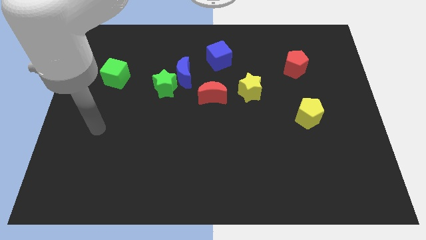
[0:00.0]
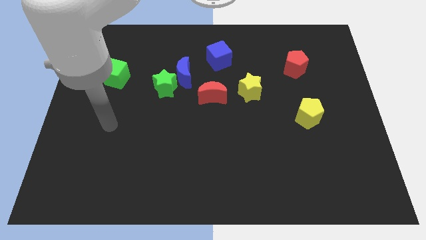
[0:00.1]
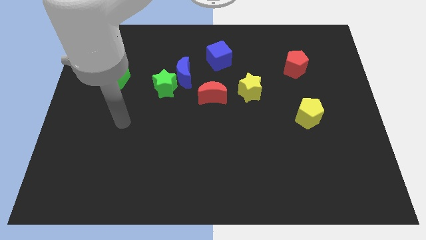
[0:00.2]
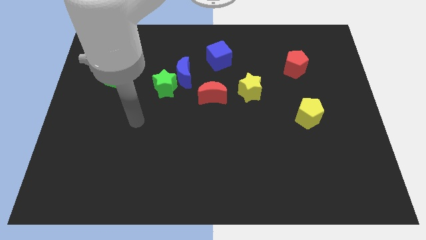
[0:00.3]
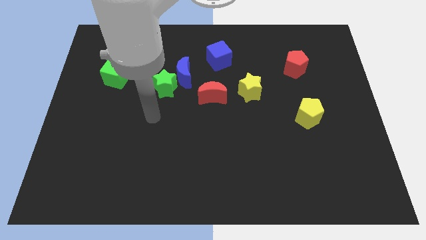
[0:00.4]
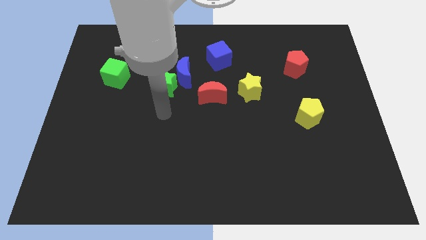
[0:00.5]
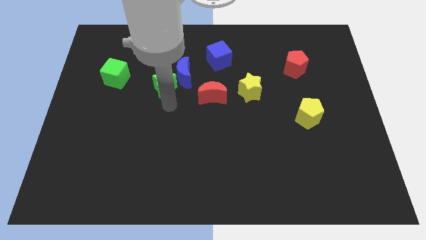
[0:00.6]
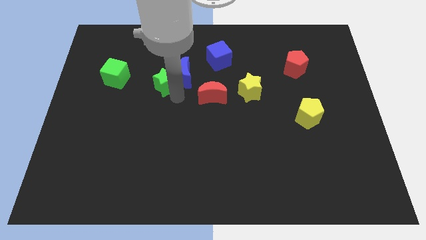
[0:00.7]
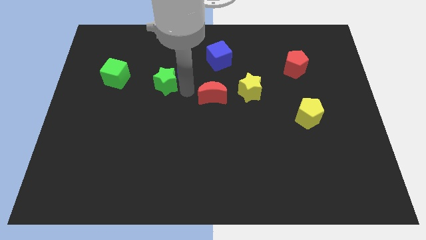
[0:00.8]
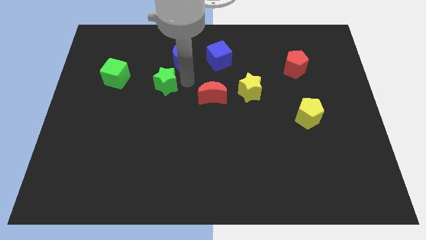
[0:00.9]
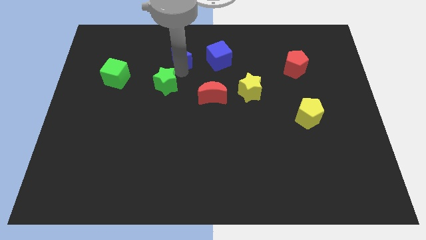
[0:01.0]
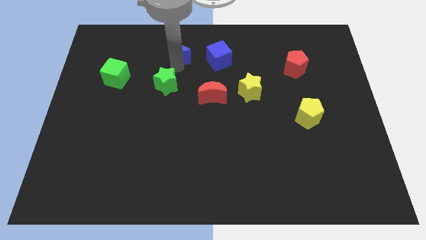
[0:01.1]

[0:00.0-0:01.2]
separate the green star from the blue moon

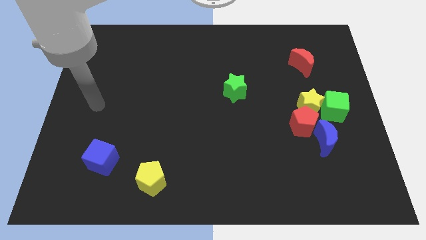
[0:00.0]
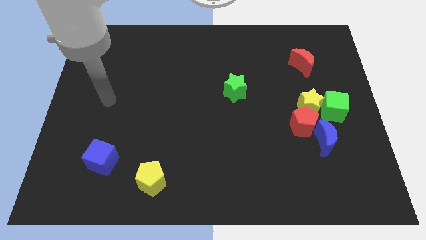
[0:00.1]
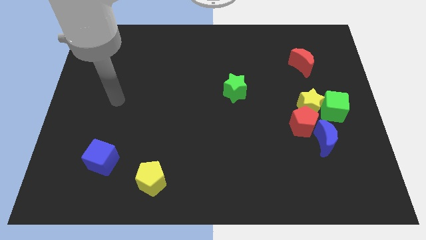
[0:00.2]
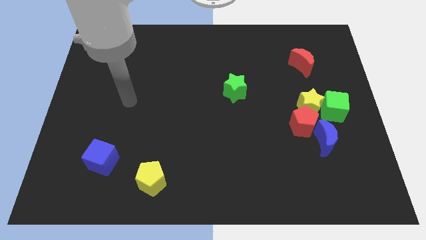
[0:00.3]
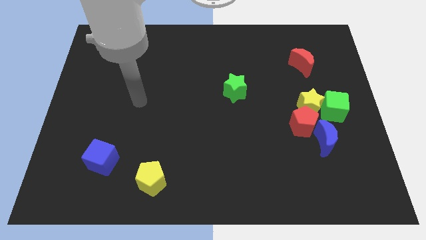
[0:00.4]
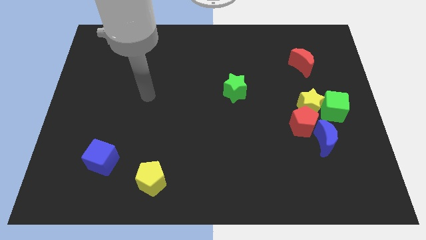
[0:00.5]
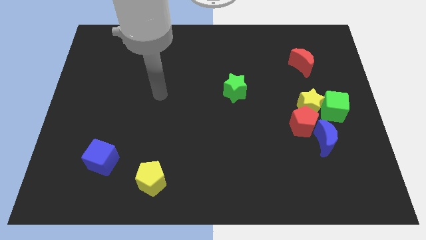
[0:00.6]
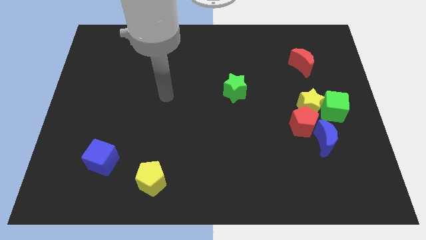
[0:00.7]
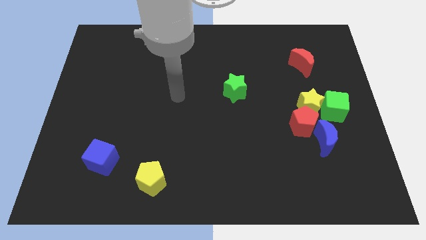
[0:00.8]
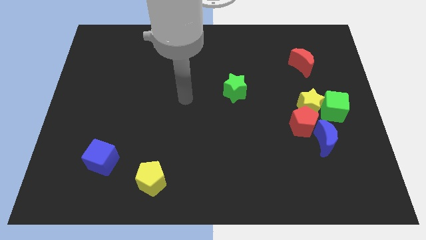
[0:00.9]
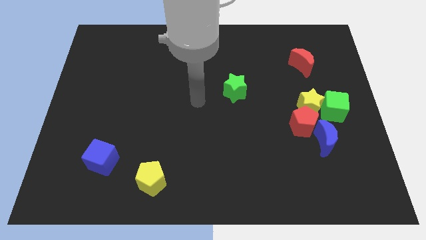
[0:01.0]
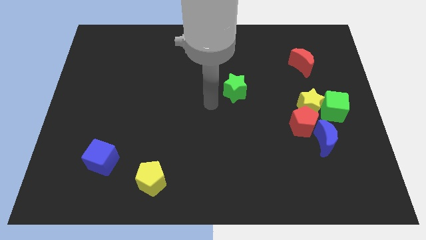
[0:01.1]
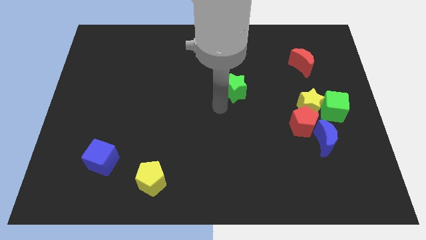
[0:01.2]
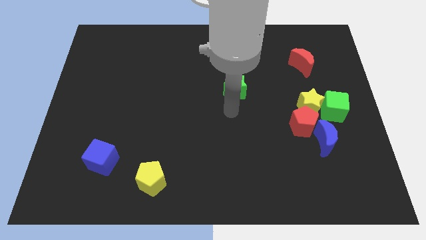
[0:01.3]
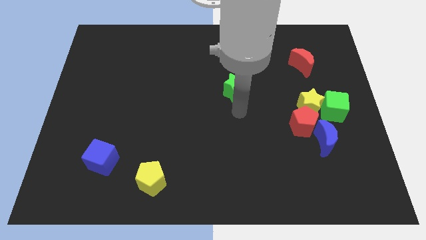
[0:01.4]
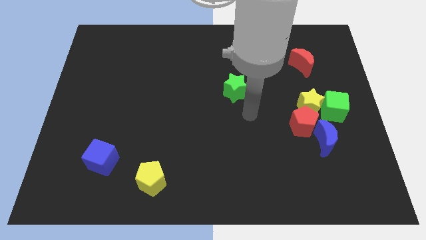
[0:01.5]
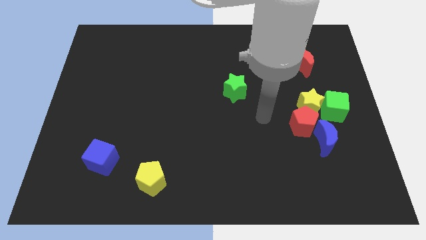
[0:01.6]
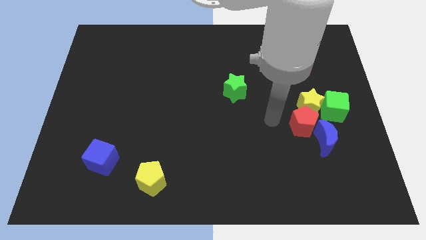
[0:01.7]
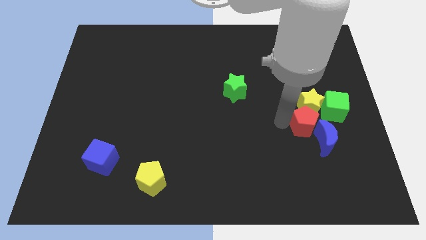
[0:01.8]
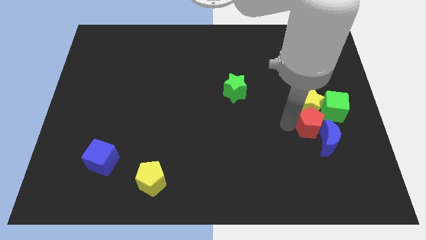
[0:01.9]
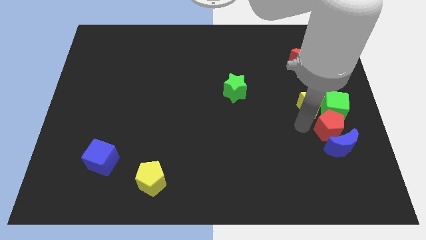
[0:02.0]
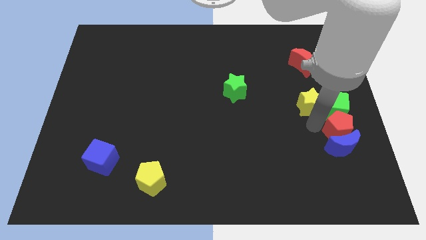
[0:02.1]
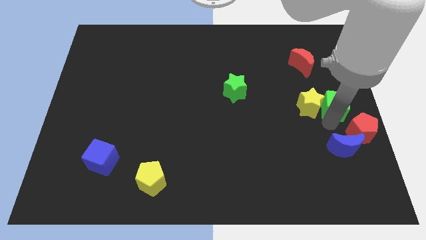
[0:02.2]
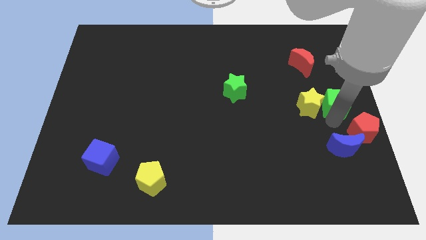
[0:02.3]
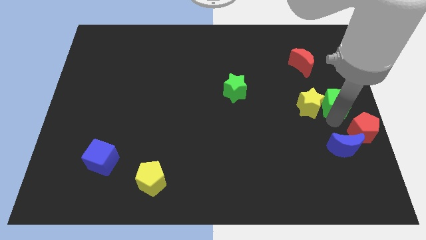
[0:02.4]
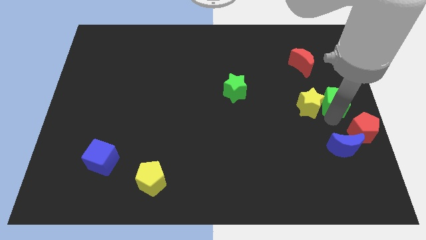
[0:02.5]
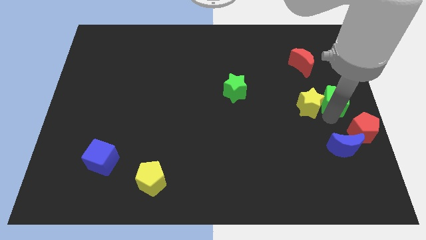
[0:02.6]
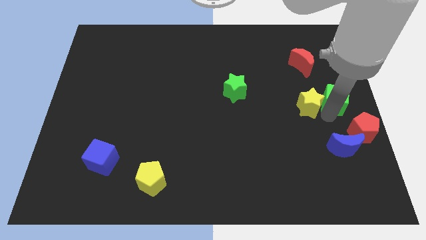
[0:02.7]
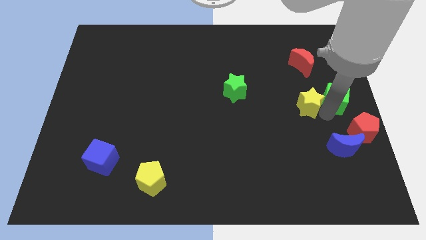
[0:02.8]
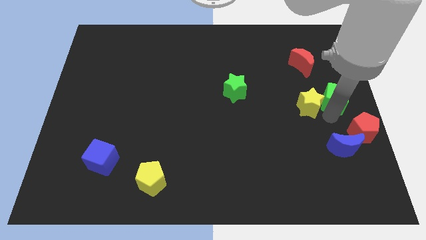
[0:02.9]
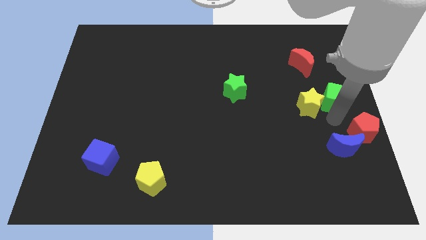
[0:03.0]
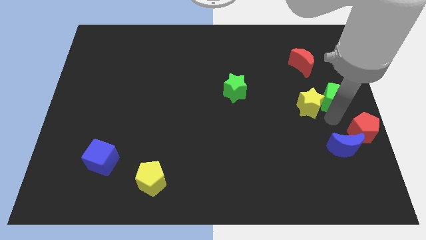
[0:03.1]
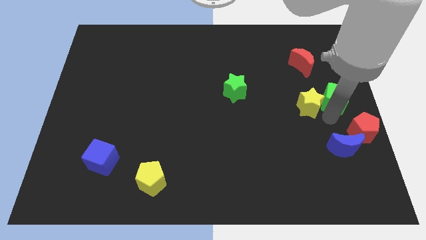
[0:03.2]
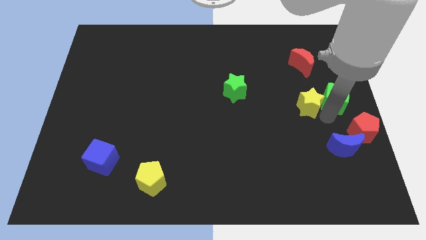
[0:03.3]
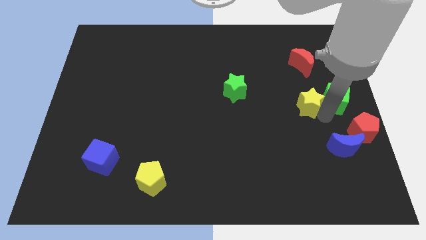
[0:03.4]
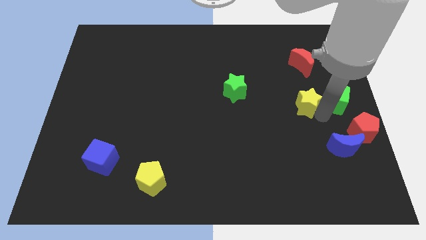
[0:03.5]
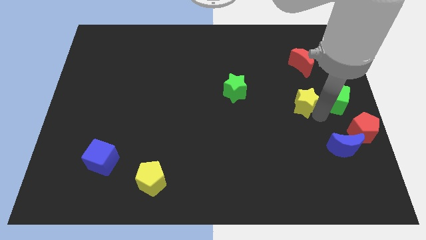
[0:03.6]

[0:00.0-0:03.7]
separate the yellow star from the green cube, red pentagon, and blue moon

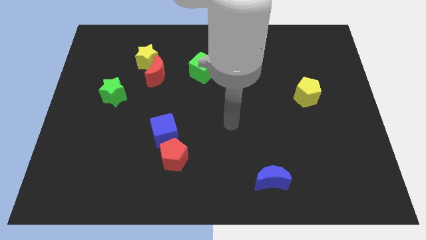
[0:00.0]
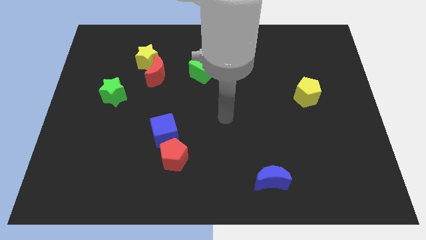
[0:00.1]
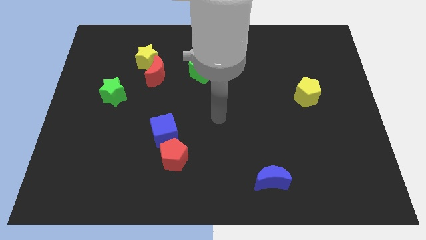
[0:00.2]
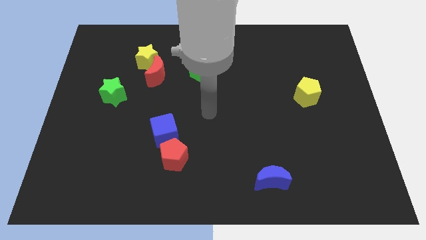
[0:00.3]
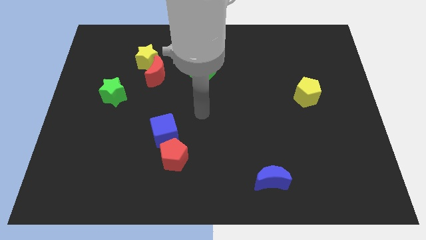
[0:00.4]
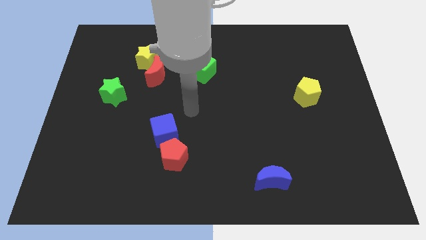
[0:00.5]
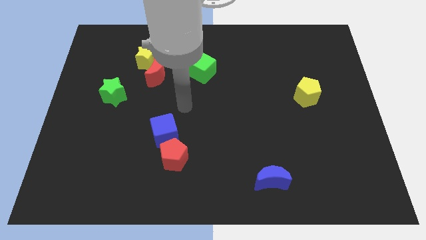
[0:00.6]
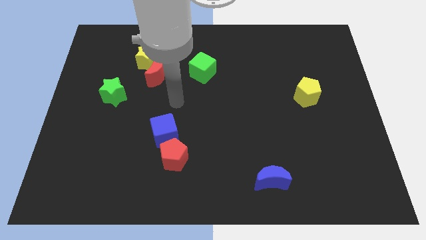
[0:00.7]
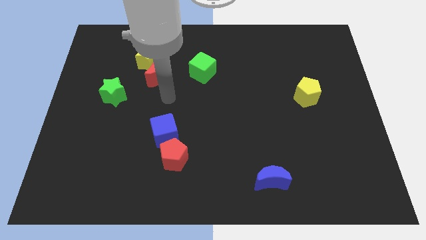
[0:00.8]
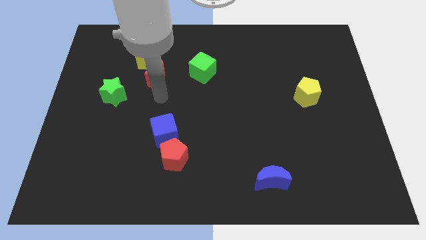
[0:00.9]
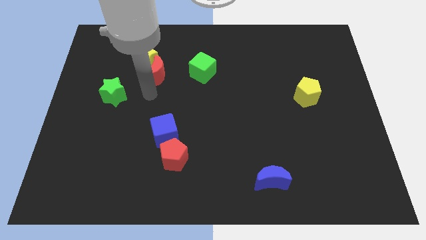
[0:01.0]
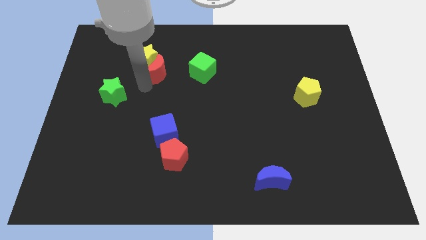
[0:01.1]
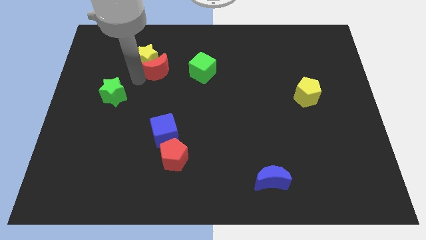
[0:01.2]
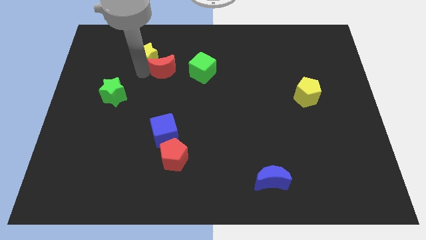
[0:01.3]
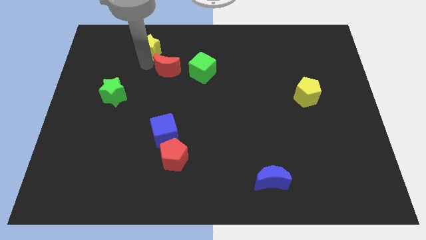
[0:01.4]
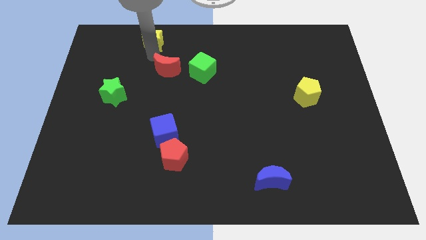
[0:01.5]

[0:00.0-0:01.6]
pull the red moon apart from the yellow star

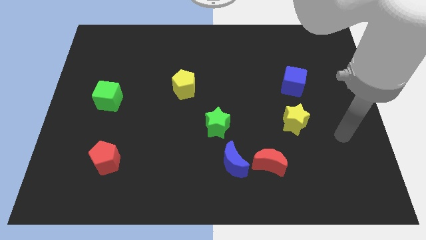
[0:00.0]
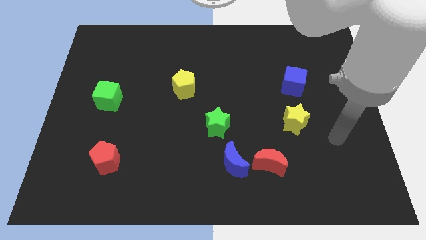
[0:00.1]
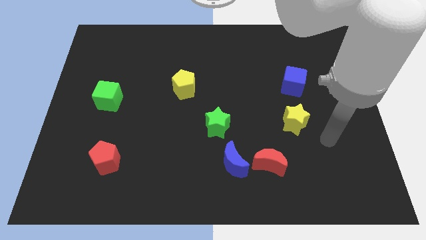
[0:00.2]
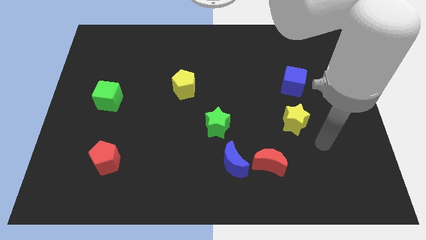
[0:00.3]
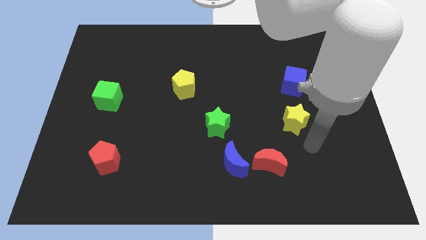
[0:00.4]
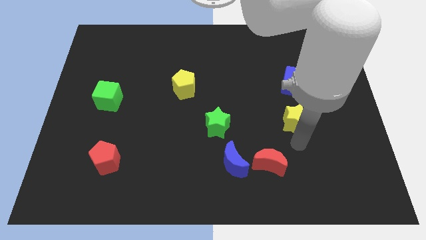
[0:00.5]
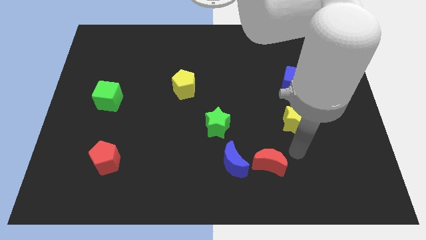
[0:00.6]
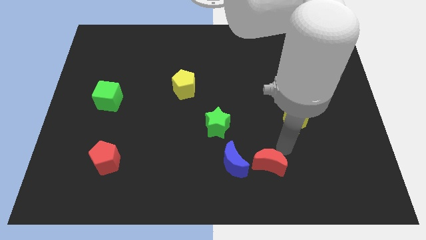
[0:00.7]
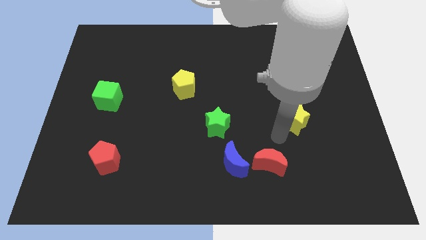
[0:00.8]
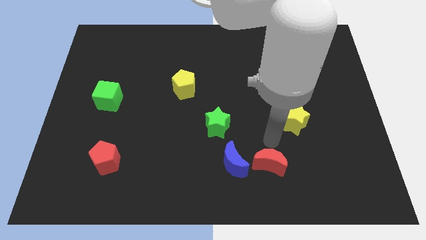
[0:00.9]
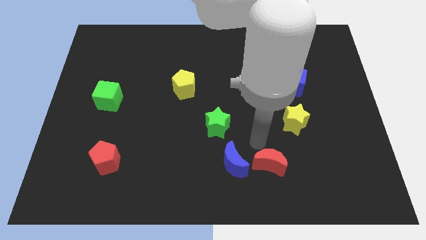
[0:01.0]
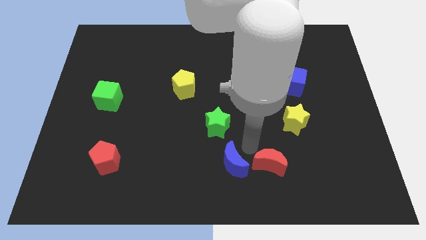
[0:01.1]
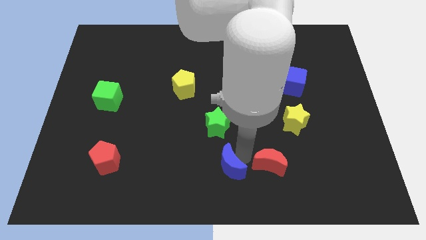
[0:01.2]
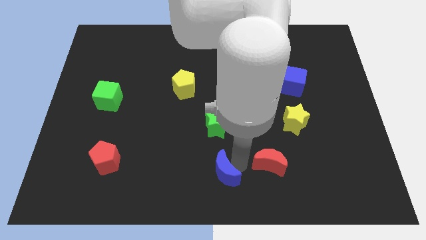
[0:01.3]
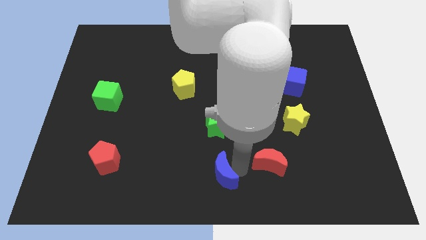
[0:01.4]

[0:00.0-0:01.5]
separate the red moon from the blue moon

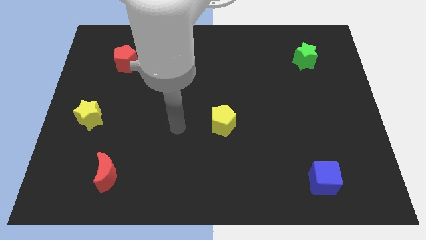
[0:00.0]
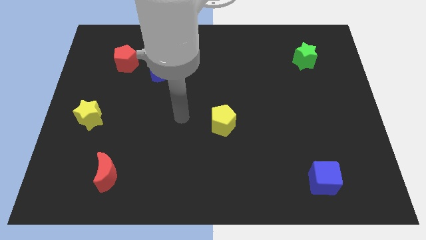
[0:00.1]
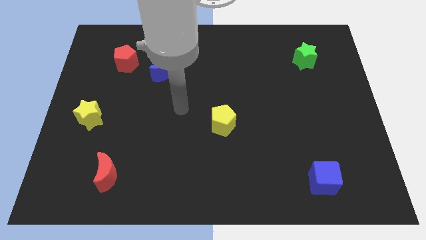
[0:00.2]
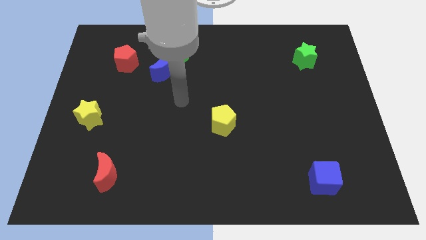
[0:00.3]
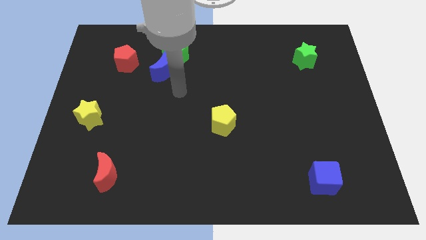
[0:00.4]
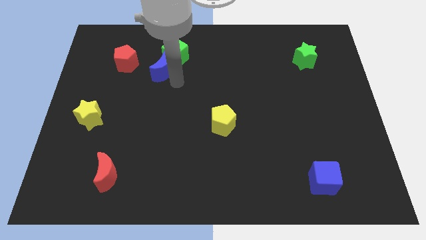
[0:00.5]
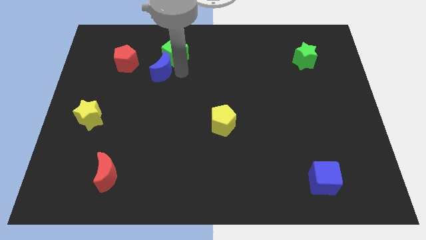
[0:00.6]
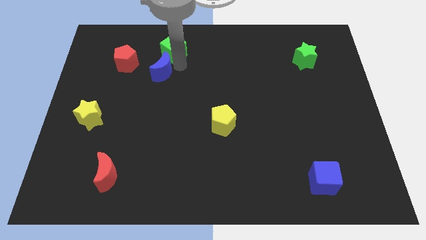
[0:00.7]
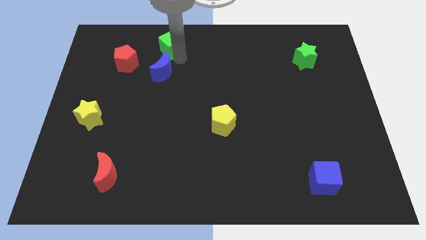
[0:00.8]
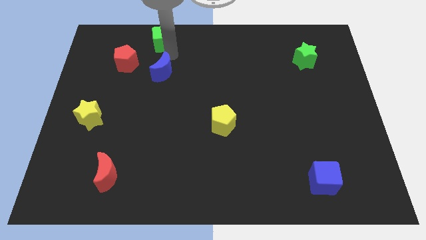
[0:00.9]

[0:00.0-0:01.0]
pull the blue moon apart from the green cube

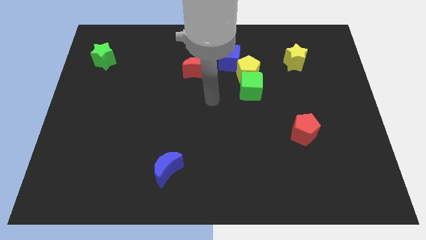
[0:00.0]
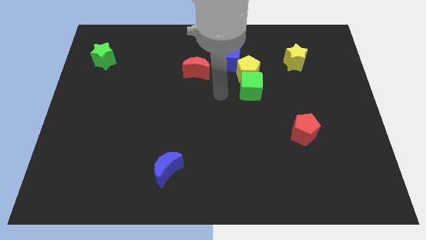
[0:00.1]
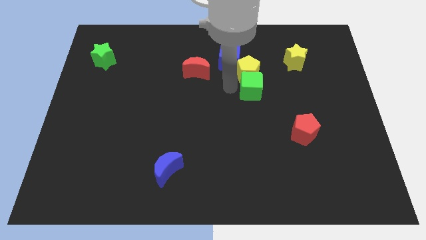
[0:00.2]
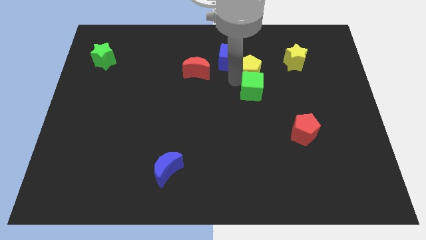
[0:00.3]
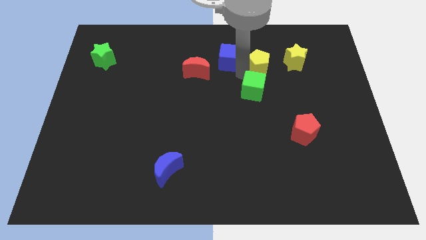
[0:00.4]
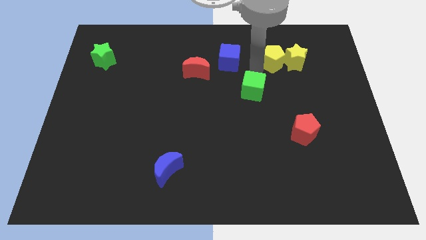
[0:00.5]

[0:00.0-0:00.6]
move the green cube away from the yellow pentagon
